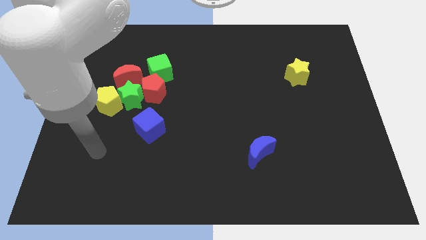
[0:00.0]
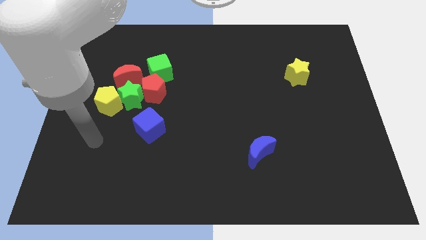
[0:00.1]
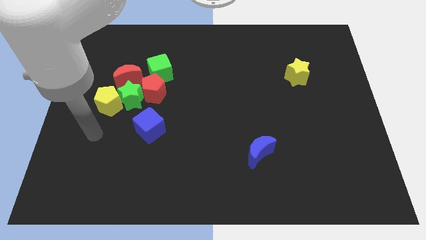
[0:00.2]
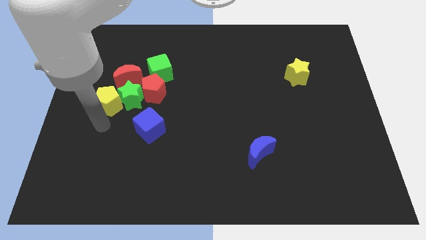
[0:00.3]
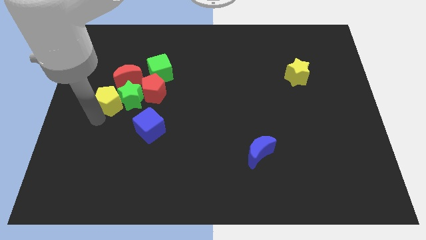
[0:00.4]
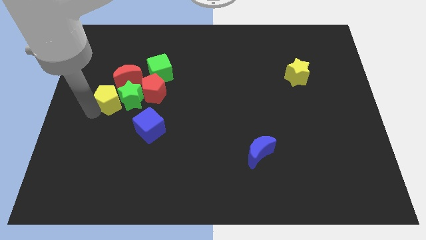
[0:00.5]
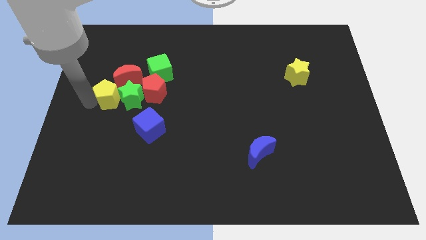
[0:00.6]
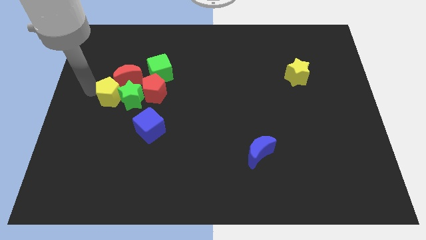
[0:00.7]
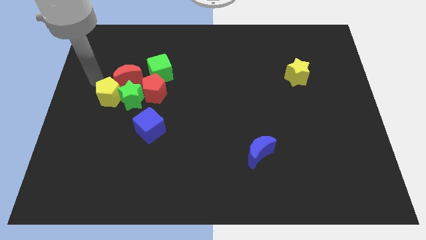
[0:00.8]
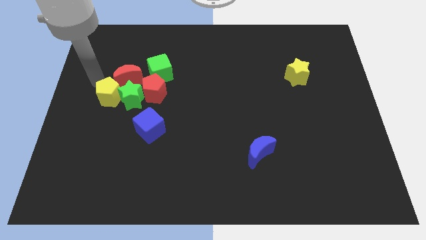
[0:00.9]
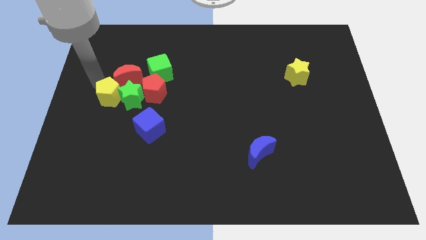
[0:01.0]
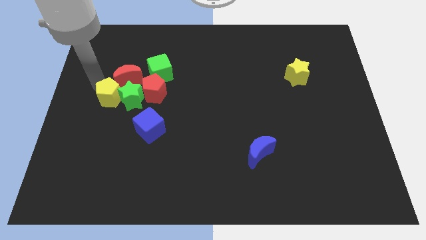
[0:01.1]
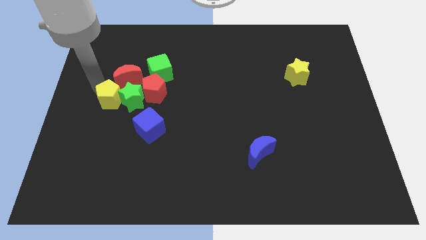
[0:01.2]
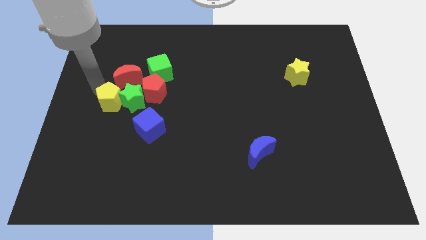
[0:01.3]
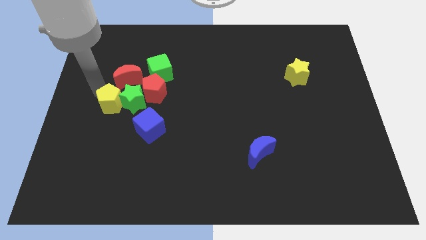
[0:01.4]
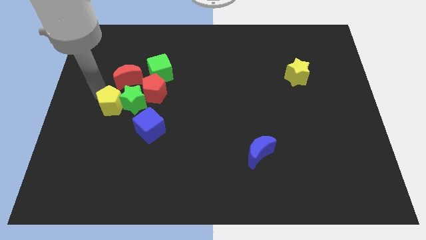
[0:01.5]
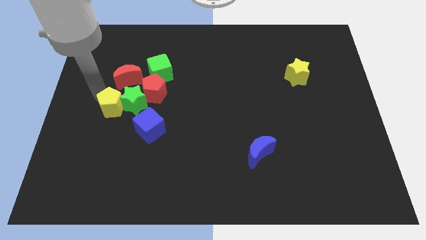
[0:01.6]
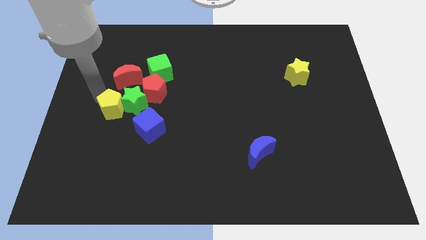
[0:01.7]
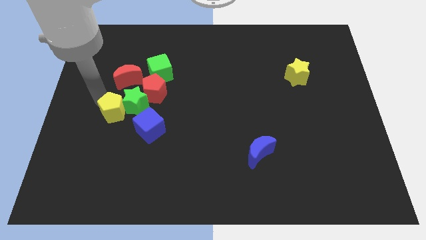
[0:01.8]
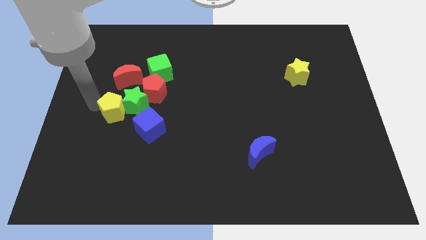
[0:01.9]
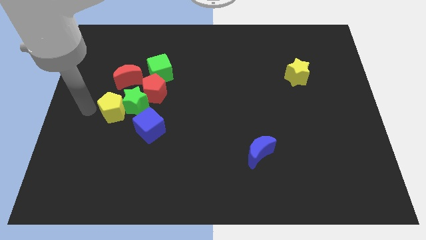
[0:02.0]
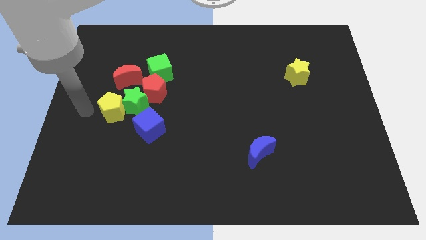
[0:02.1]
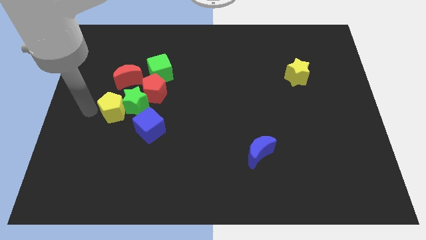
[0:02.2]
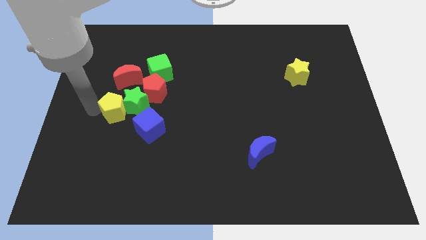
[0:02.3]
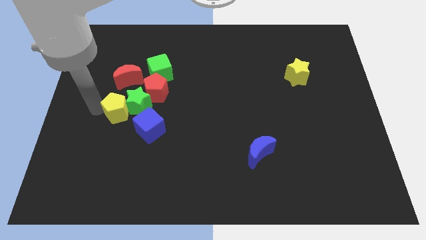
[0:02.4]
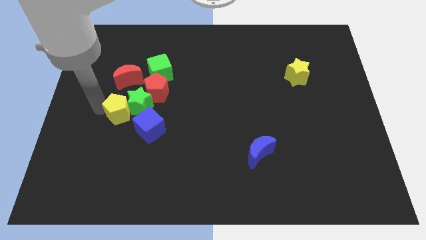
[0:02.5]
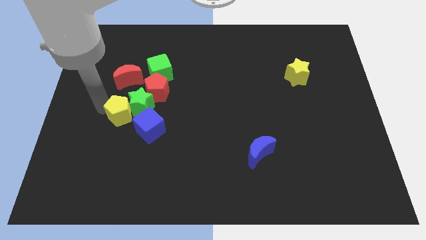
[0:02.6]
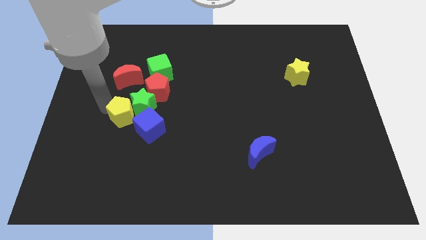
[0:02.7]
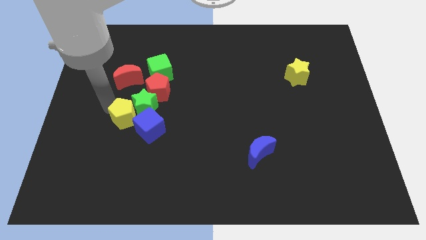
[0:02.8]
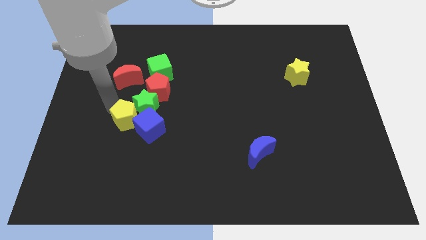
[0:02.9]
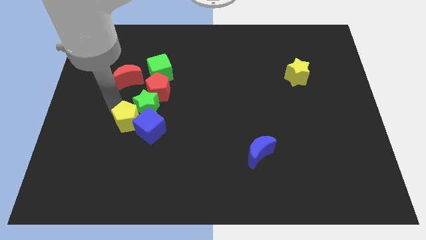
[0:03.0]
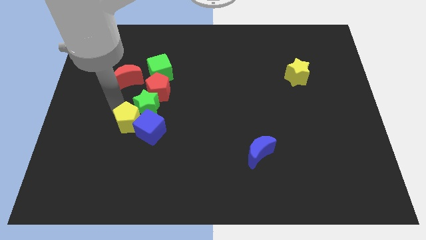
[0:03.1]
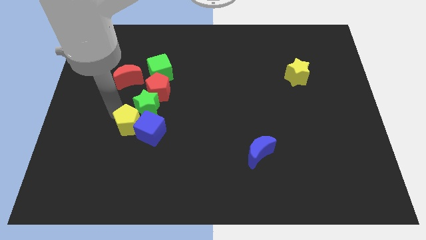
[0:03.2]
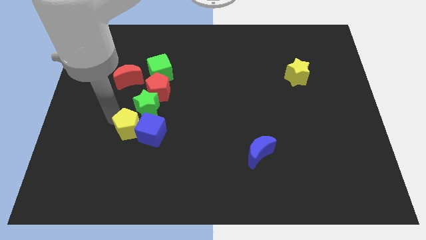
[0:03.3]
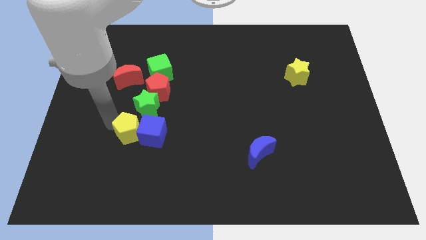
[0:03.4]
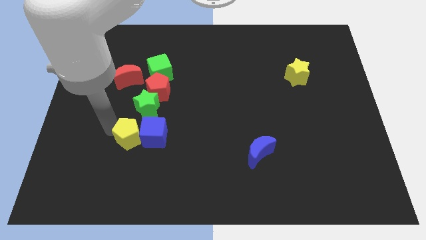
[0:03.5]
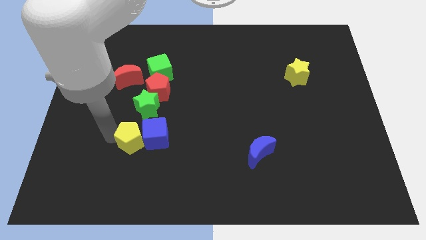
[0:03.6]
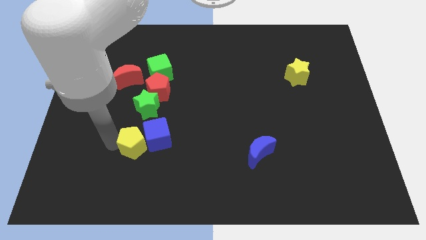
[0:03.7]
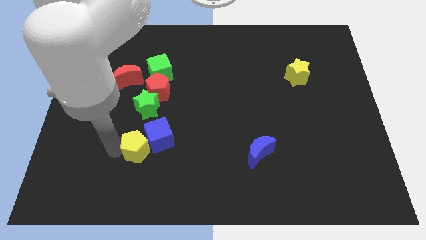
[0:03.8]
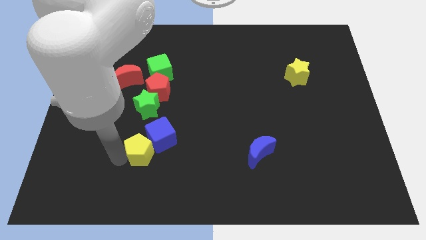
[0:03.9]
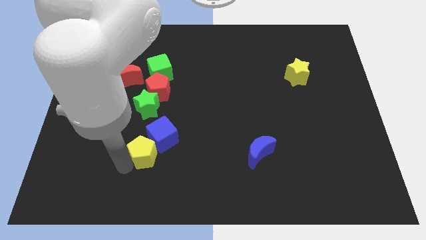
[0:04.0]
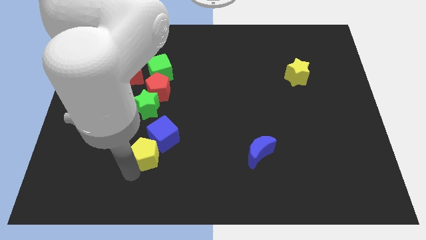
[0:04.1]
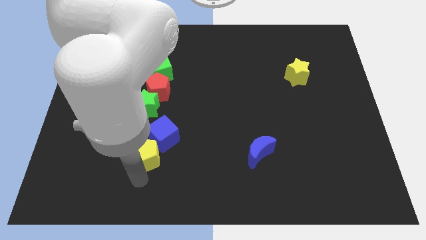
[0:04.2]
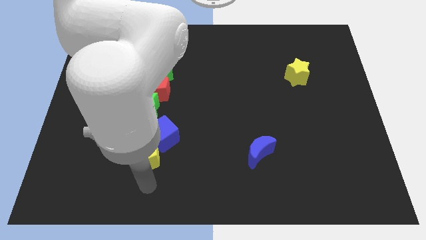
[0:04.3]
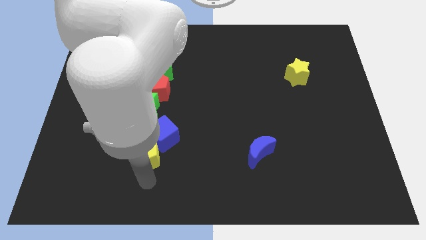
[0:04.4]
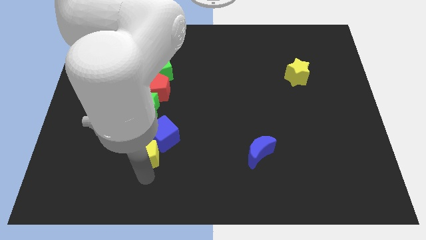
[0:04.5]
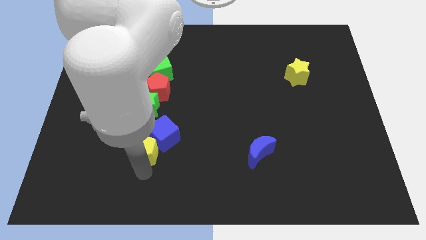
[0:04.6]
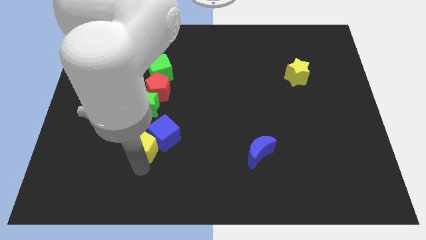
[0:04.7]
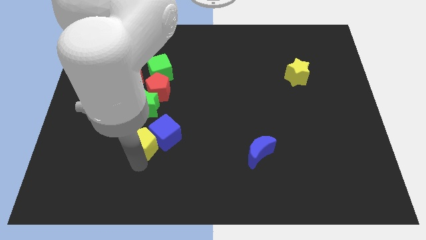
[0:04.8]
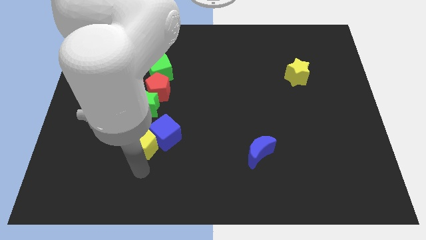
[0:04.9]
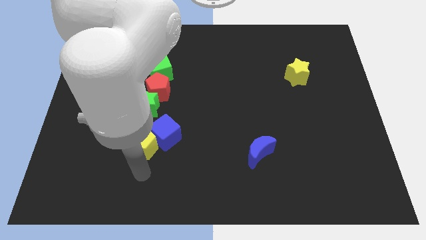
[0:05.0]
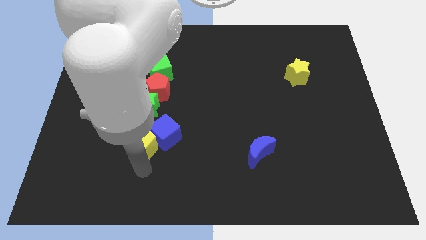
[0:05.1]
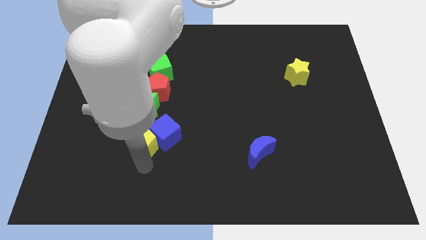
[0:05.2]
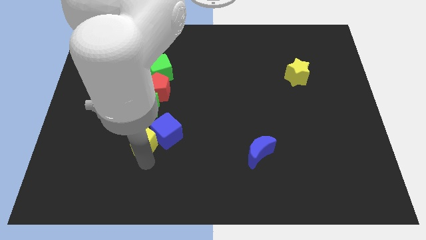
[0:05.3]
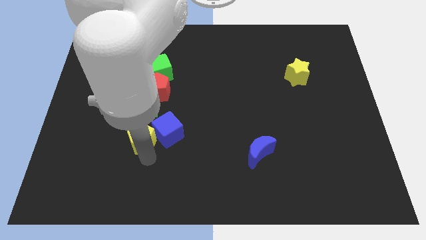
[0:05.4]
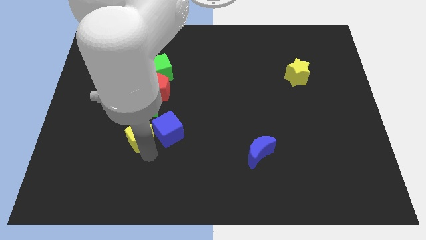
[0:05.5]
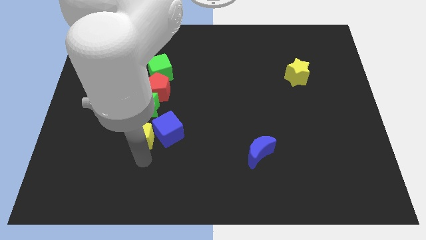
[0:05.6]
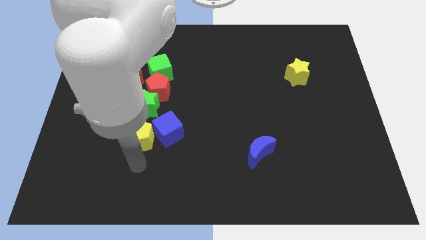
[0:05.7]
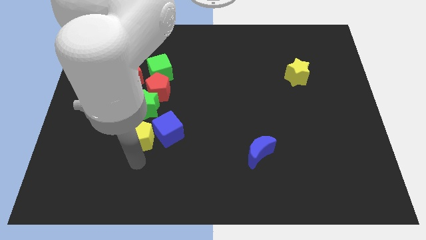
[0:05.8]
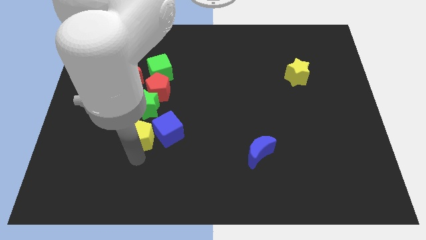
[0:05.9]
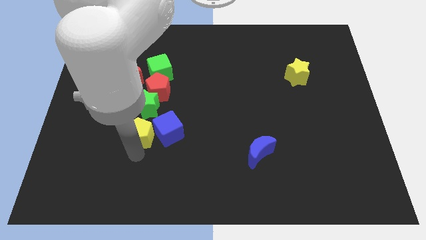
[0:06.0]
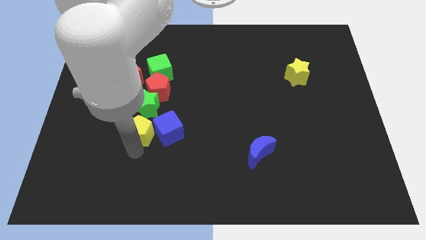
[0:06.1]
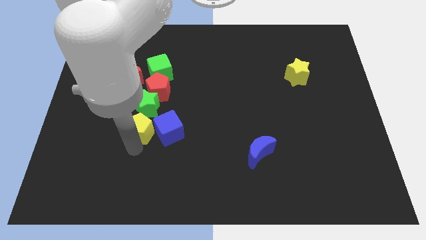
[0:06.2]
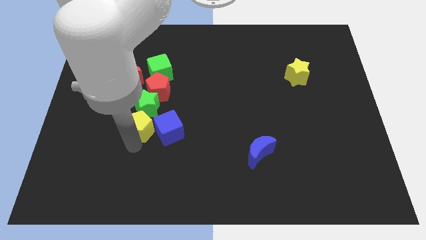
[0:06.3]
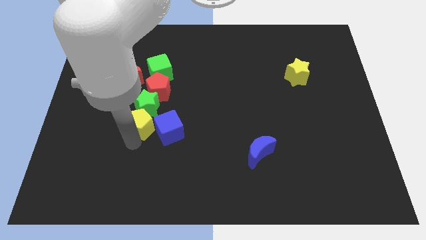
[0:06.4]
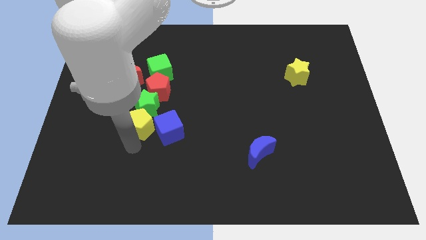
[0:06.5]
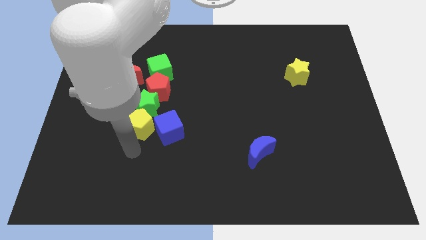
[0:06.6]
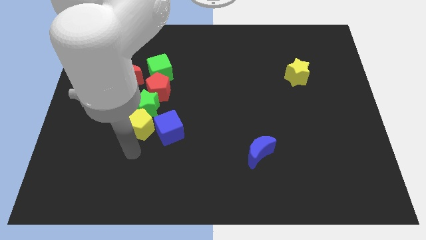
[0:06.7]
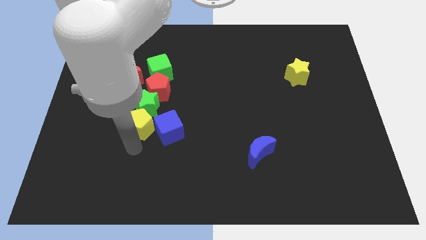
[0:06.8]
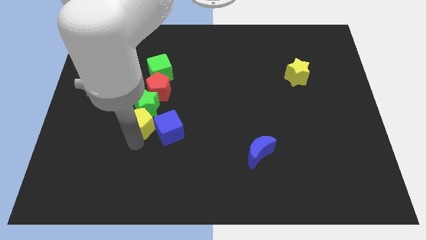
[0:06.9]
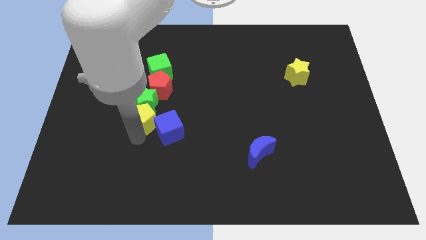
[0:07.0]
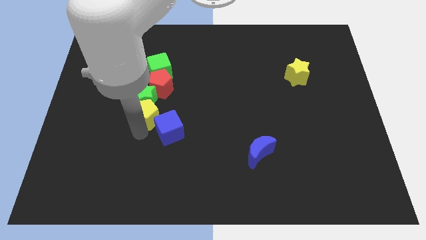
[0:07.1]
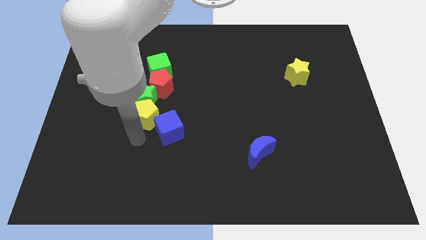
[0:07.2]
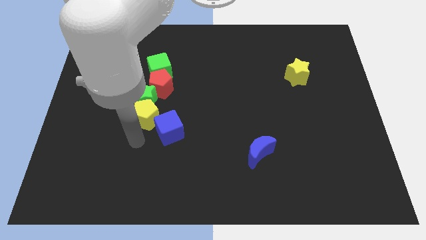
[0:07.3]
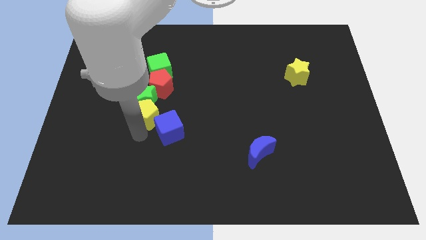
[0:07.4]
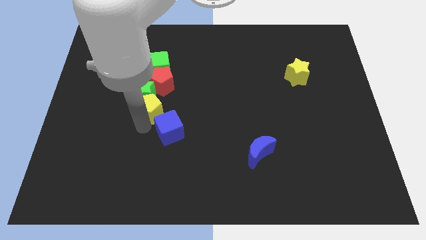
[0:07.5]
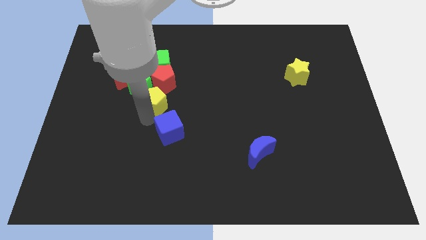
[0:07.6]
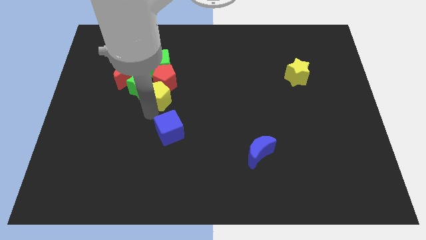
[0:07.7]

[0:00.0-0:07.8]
move the yellow pentagon to the red pentagon
